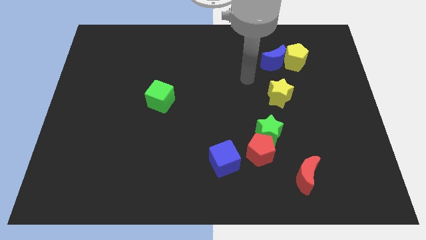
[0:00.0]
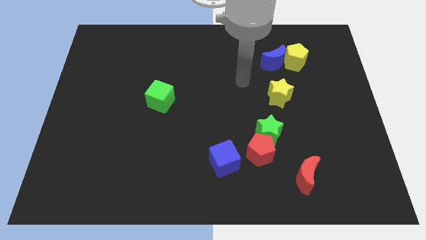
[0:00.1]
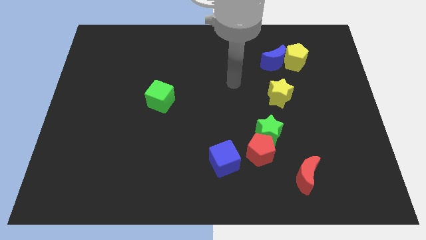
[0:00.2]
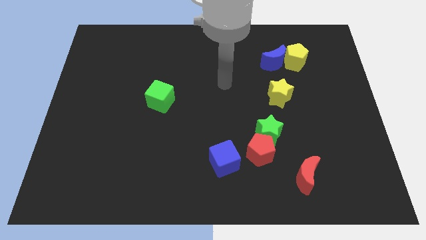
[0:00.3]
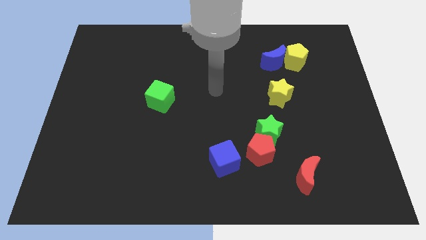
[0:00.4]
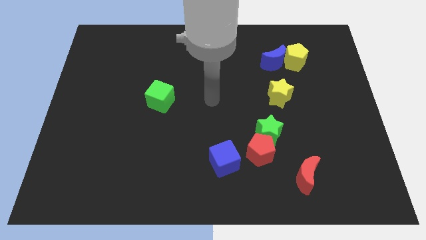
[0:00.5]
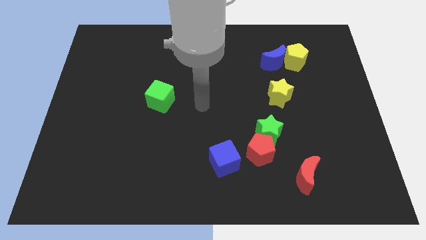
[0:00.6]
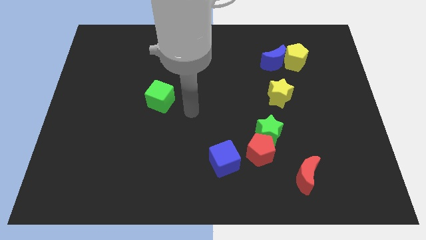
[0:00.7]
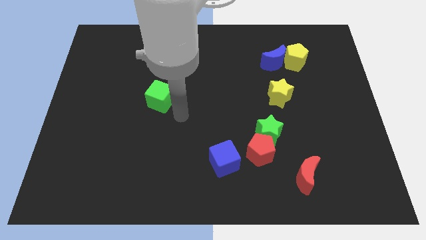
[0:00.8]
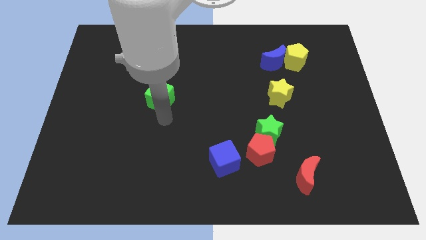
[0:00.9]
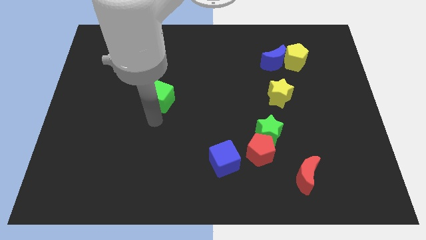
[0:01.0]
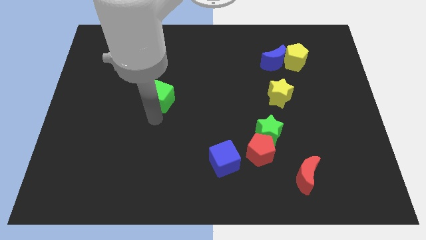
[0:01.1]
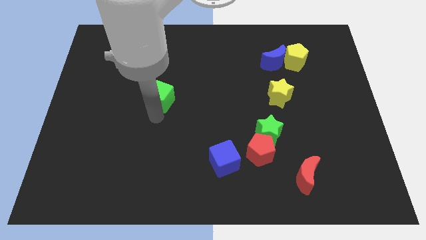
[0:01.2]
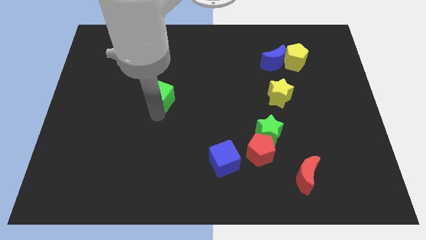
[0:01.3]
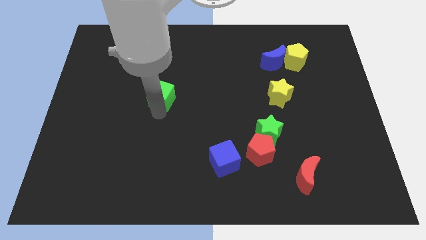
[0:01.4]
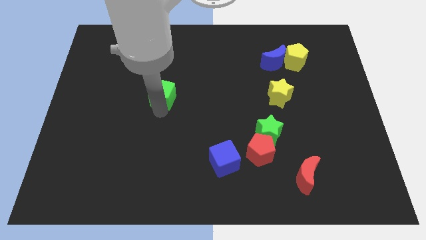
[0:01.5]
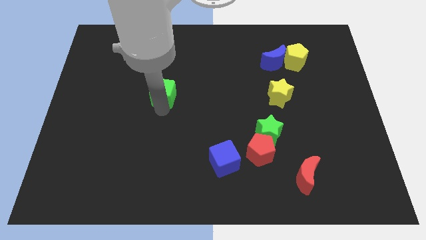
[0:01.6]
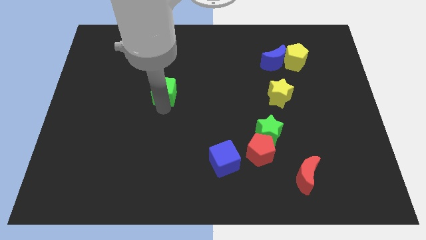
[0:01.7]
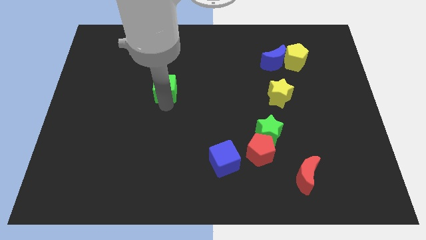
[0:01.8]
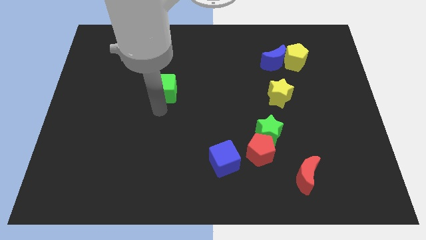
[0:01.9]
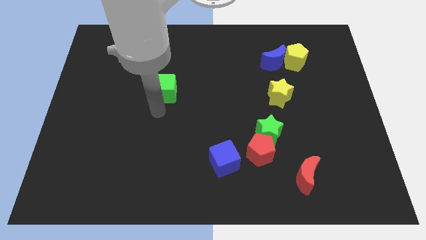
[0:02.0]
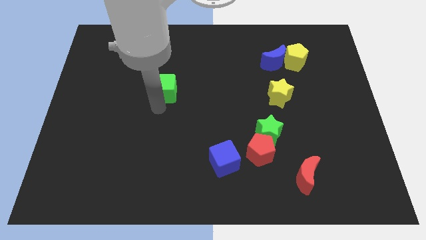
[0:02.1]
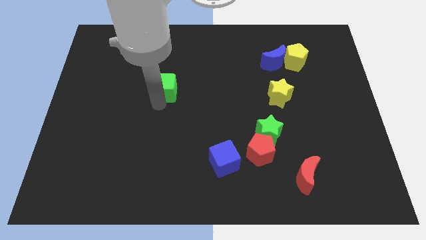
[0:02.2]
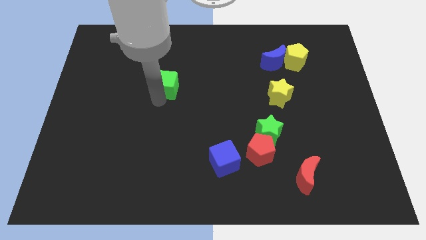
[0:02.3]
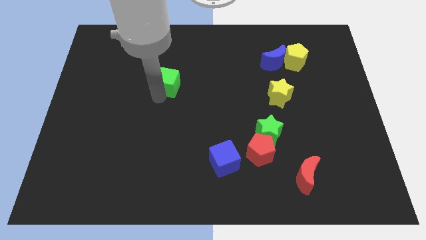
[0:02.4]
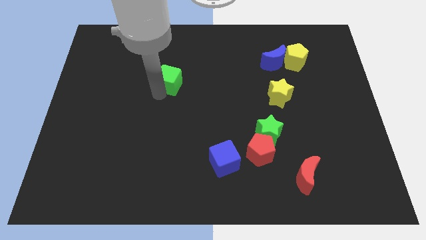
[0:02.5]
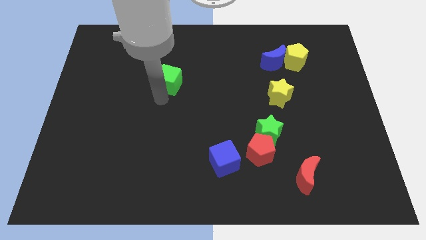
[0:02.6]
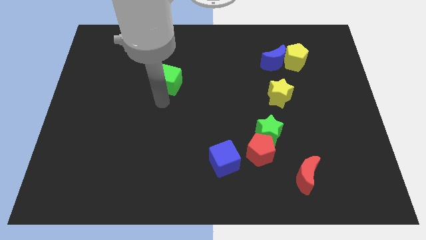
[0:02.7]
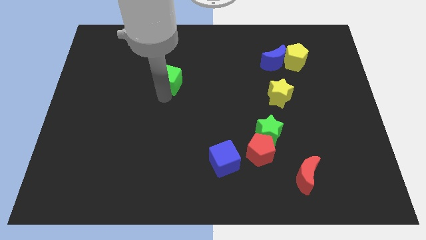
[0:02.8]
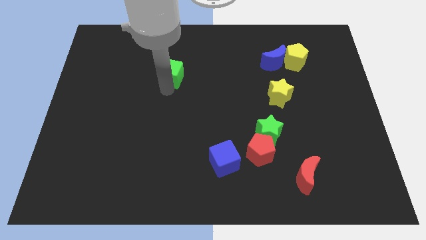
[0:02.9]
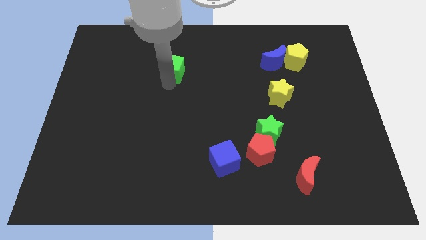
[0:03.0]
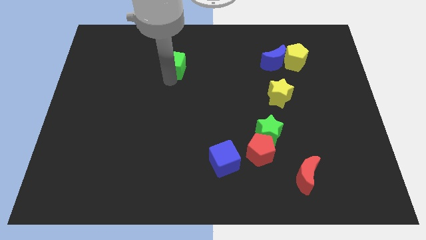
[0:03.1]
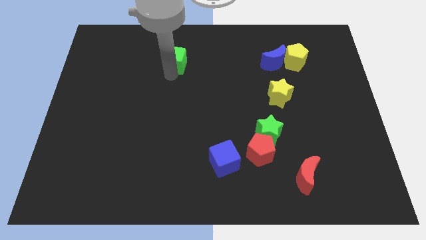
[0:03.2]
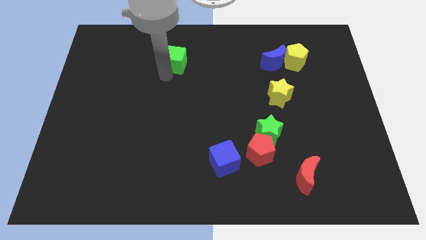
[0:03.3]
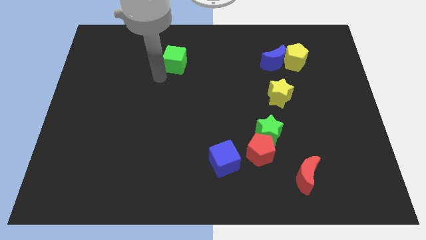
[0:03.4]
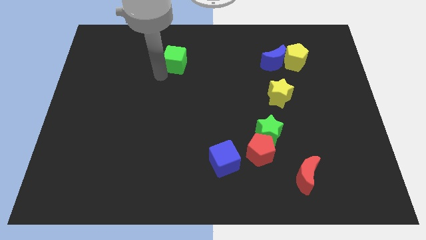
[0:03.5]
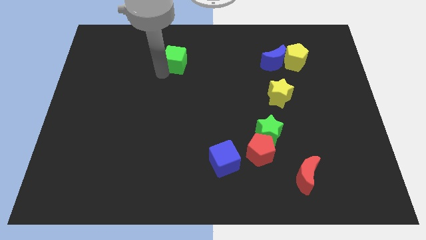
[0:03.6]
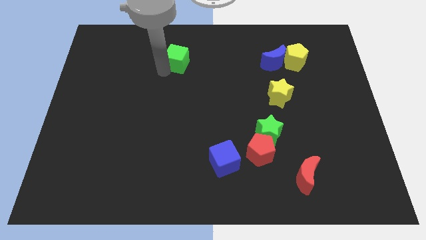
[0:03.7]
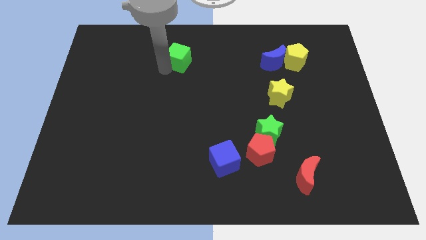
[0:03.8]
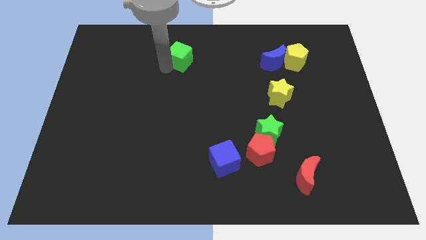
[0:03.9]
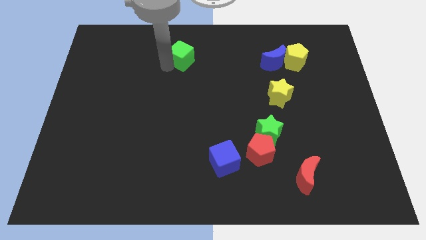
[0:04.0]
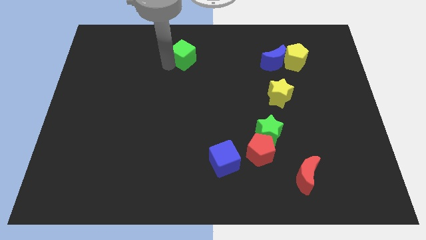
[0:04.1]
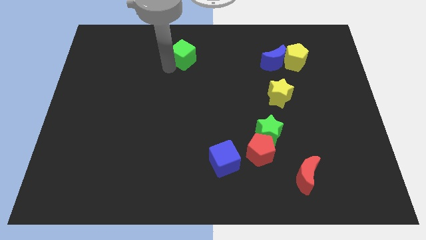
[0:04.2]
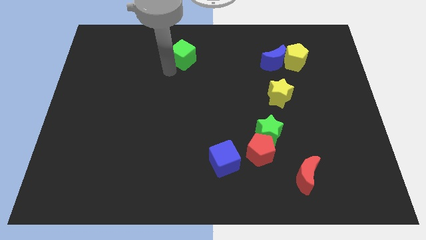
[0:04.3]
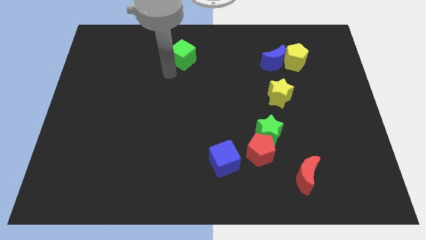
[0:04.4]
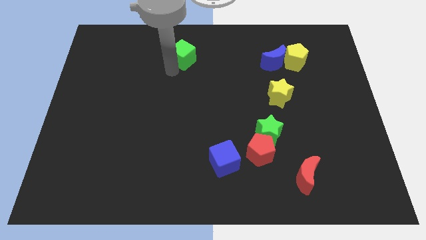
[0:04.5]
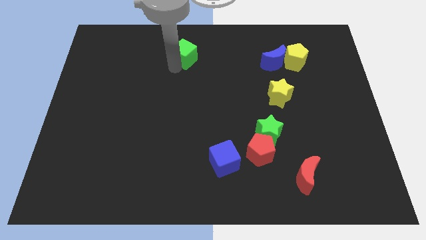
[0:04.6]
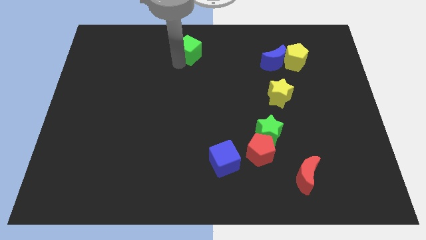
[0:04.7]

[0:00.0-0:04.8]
push the green cube to the top side

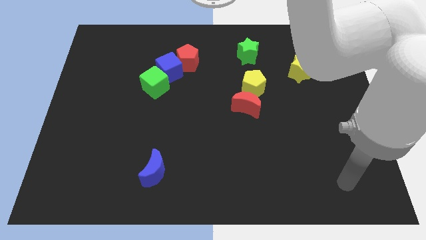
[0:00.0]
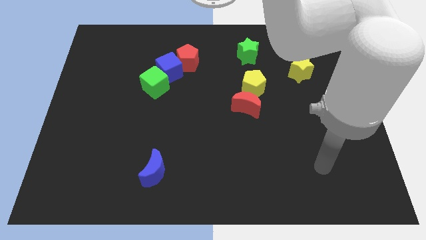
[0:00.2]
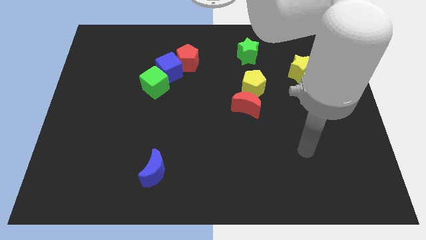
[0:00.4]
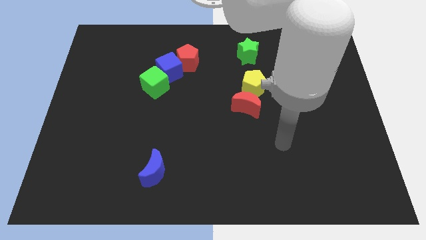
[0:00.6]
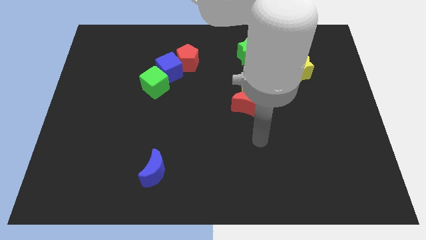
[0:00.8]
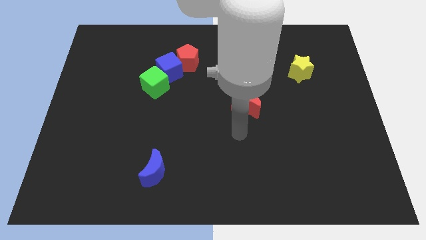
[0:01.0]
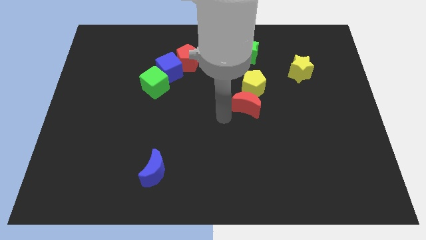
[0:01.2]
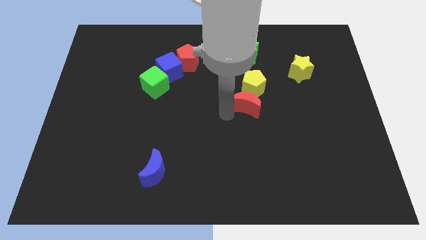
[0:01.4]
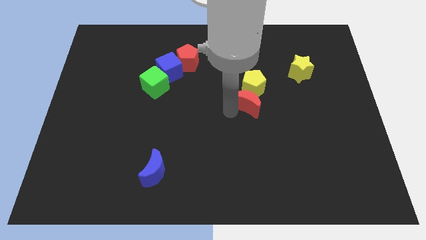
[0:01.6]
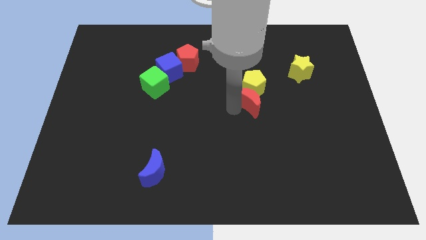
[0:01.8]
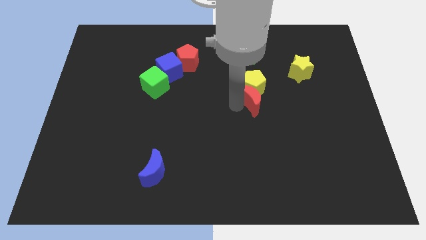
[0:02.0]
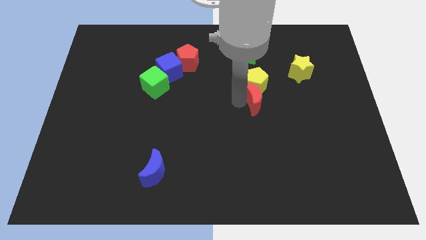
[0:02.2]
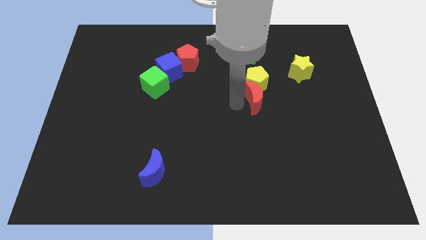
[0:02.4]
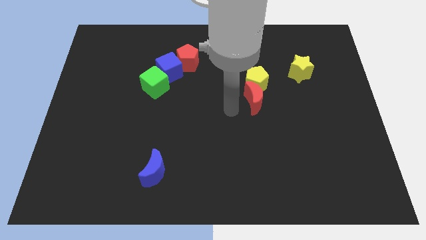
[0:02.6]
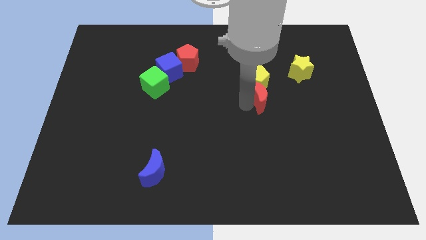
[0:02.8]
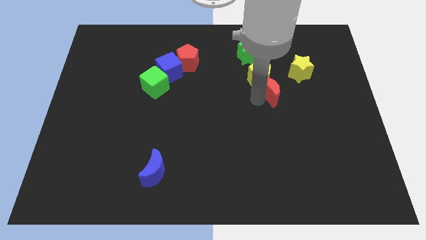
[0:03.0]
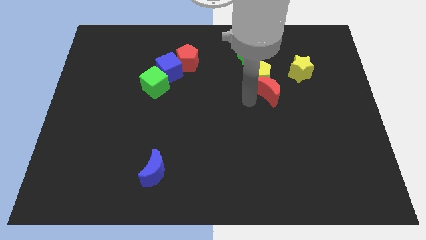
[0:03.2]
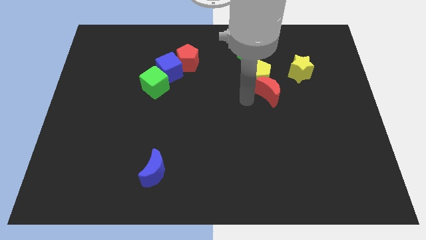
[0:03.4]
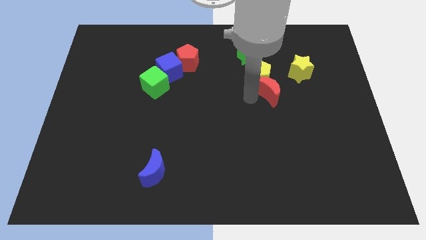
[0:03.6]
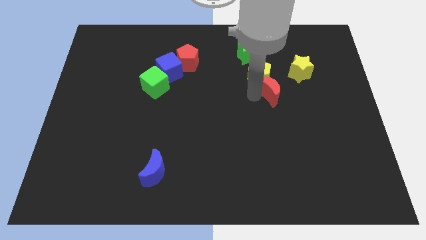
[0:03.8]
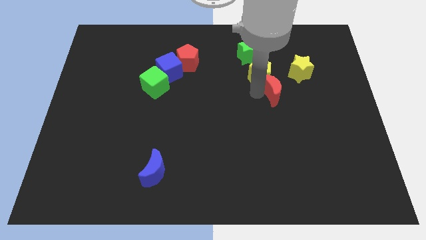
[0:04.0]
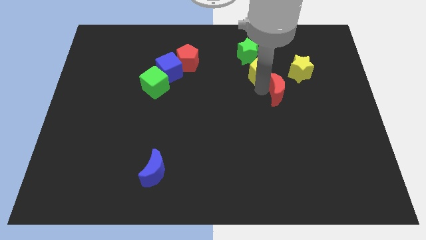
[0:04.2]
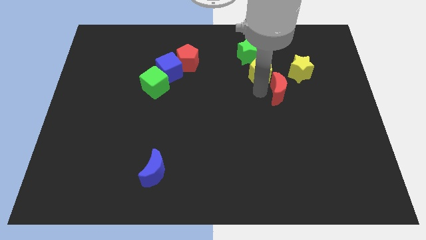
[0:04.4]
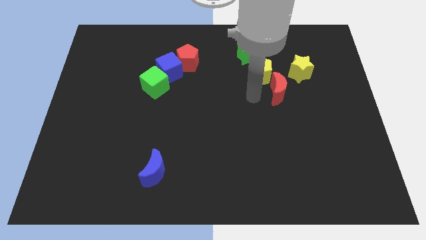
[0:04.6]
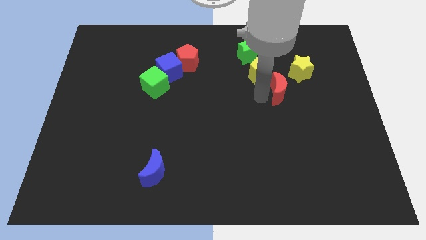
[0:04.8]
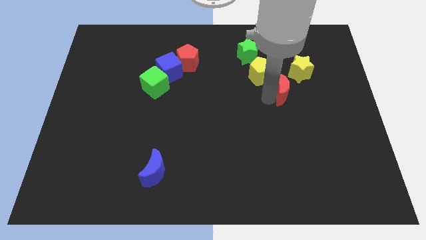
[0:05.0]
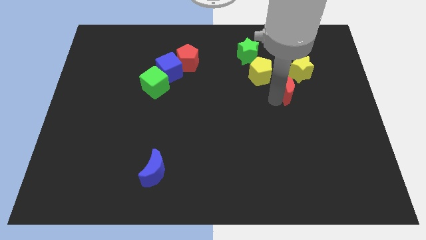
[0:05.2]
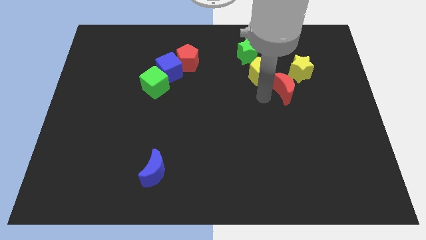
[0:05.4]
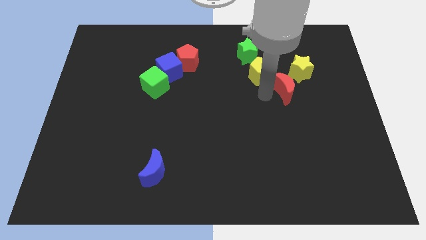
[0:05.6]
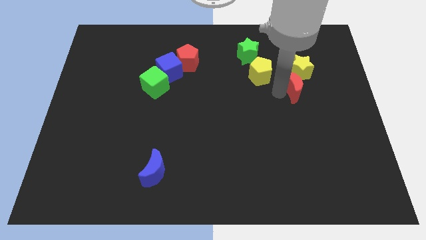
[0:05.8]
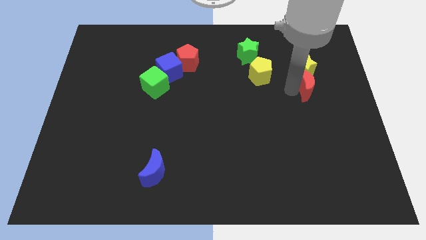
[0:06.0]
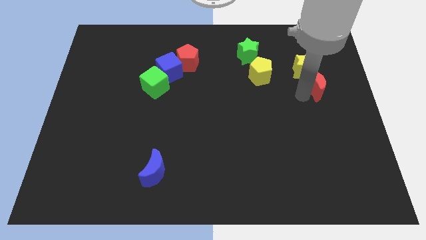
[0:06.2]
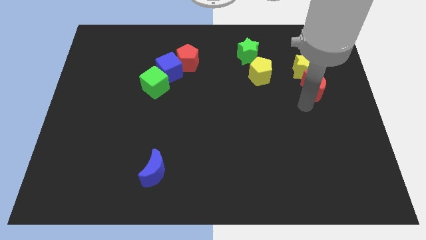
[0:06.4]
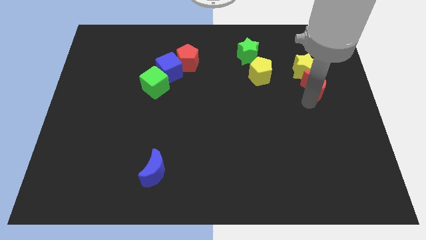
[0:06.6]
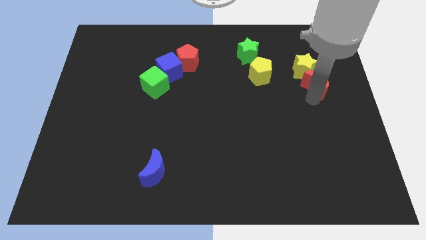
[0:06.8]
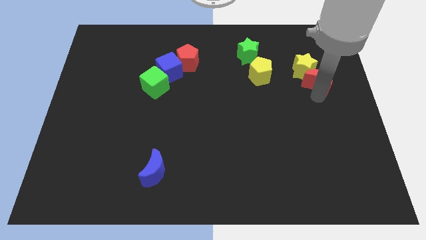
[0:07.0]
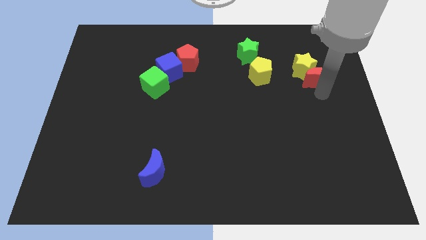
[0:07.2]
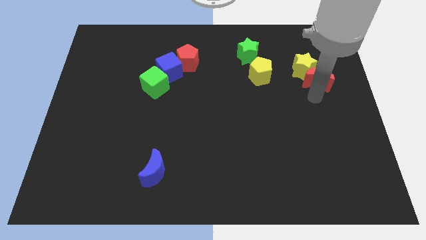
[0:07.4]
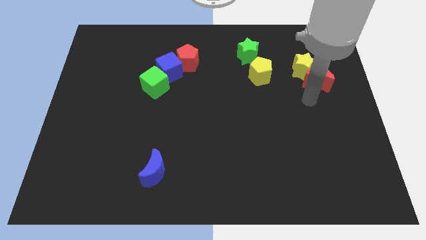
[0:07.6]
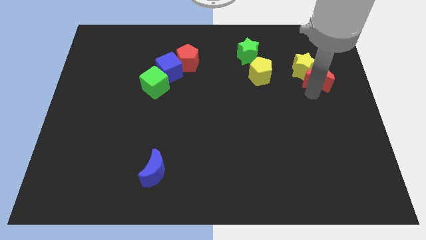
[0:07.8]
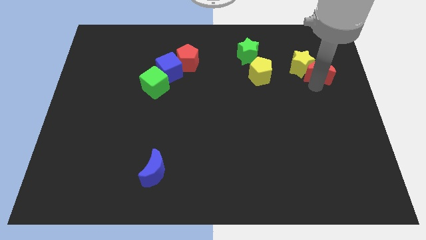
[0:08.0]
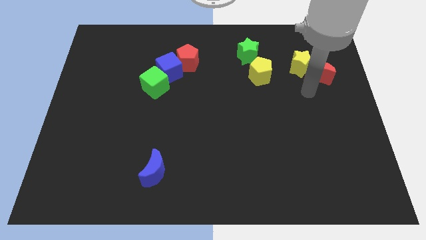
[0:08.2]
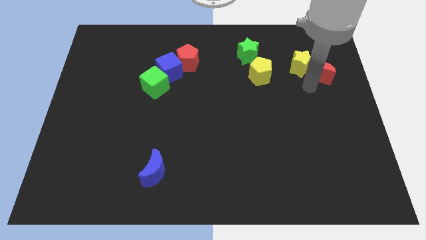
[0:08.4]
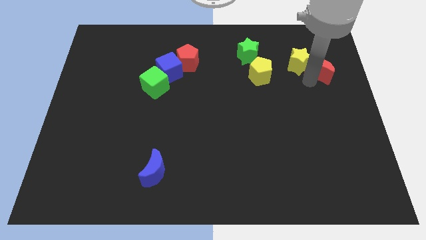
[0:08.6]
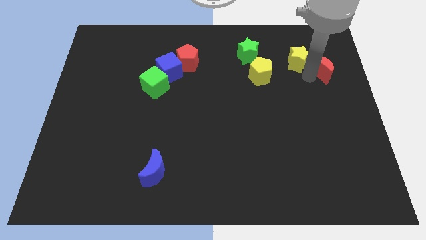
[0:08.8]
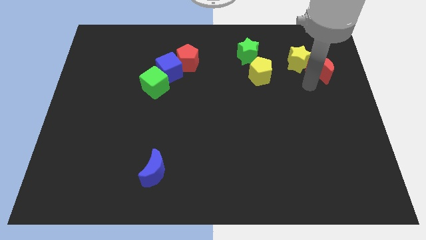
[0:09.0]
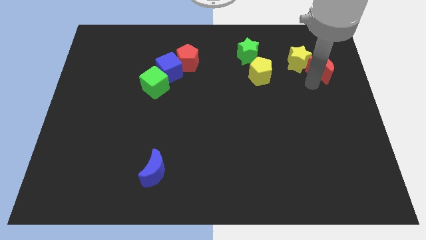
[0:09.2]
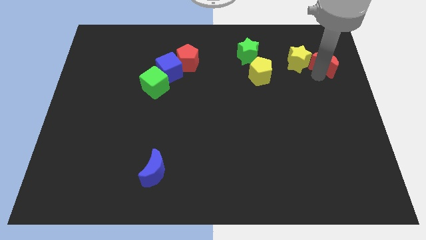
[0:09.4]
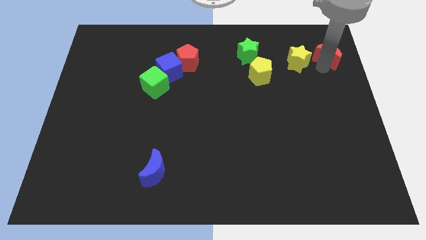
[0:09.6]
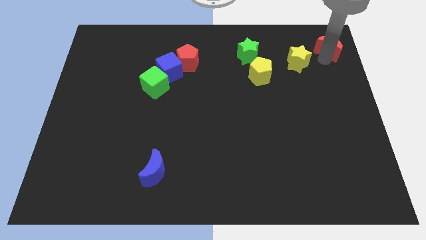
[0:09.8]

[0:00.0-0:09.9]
move the red moon to the top right corner
